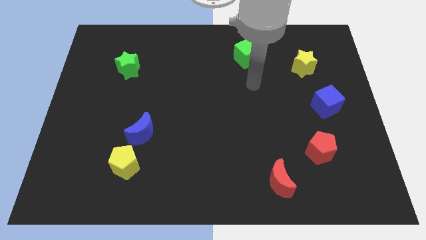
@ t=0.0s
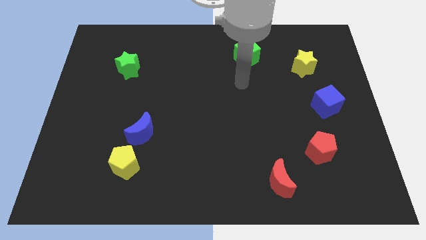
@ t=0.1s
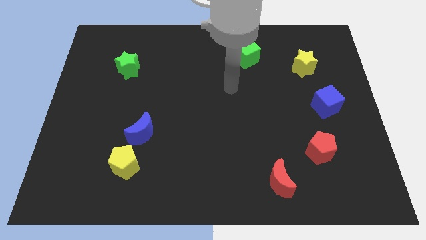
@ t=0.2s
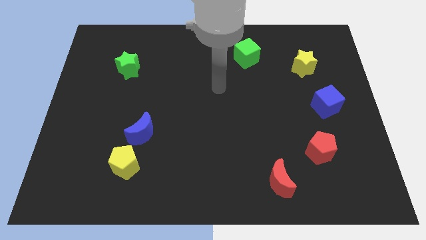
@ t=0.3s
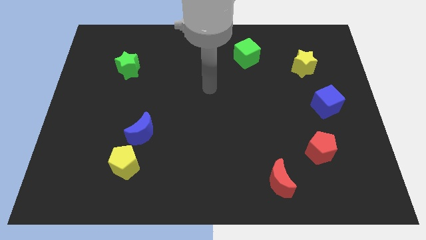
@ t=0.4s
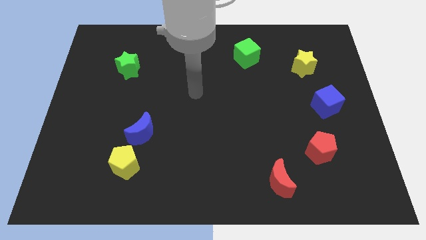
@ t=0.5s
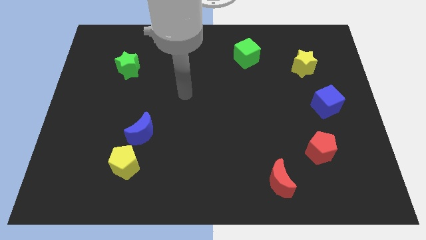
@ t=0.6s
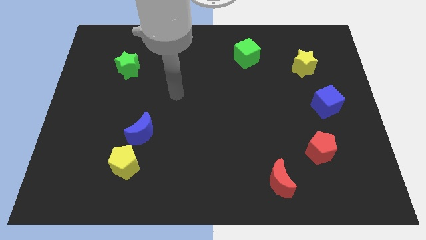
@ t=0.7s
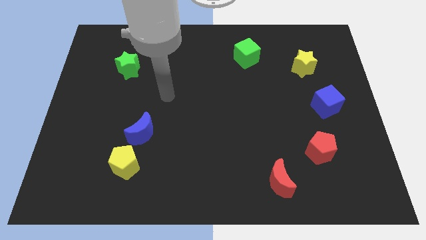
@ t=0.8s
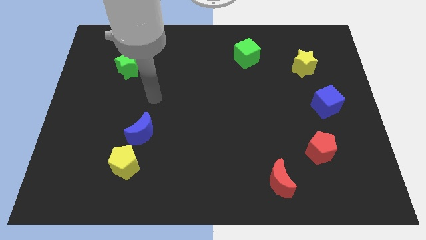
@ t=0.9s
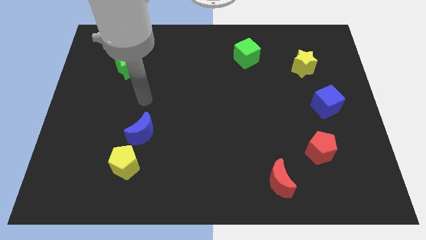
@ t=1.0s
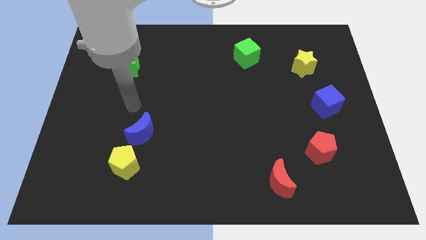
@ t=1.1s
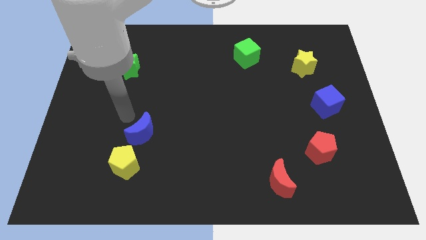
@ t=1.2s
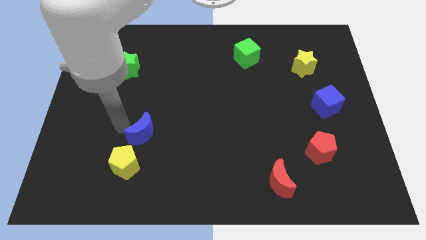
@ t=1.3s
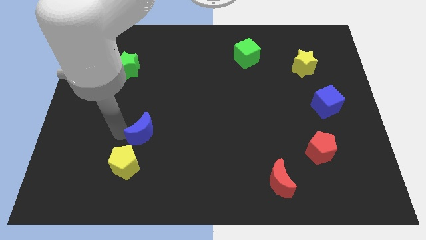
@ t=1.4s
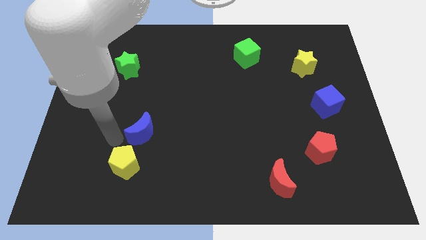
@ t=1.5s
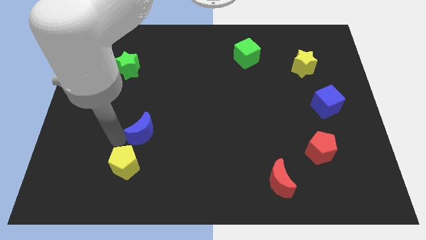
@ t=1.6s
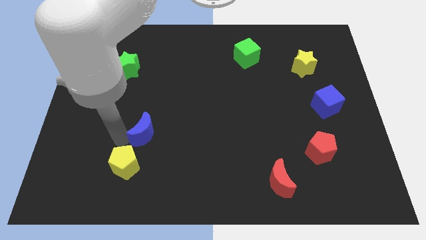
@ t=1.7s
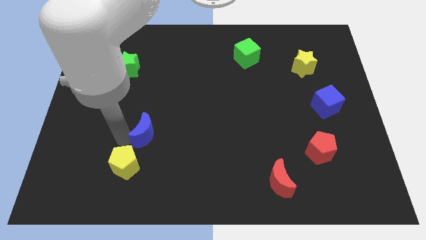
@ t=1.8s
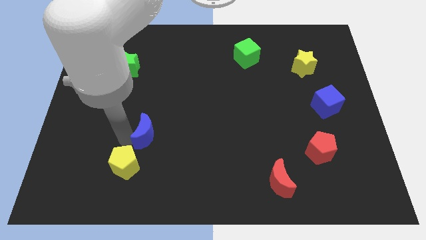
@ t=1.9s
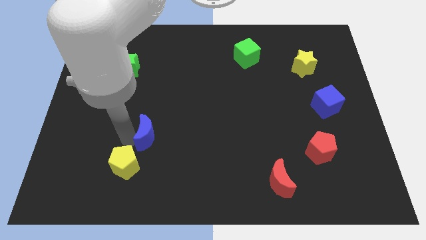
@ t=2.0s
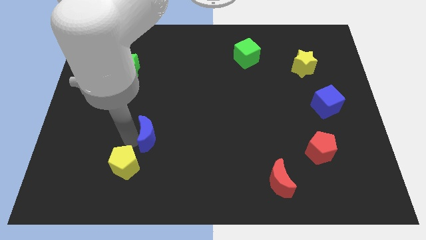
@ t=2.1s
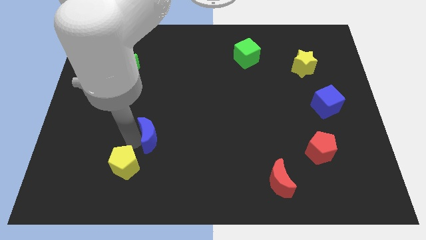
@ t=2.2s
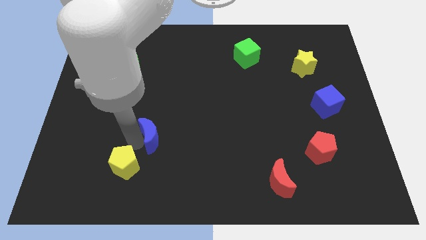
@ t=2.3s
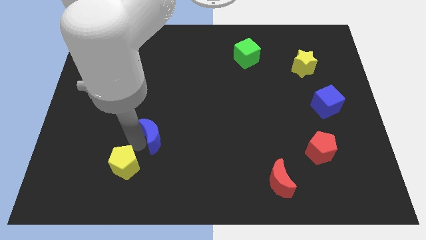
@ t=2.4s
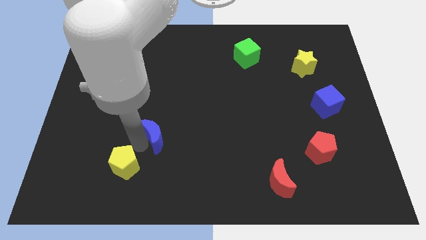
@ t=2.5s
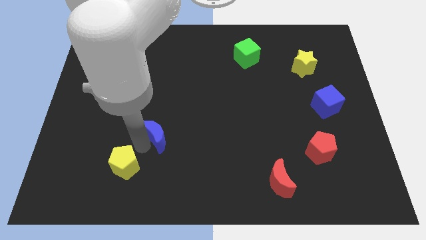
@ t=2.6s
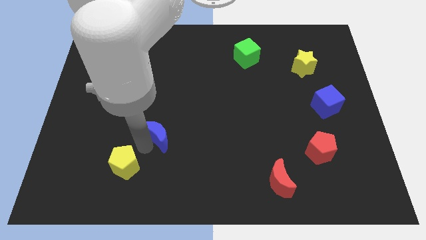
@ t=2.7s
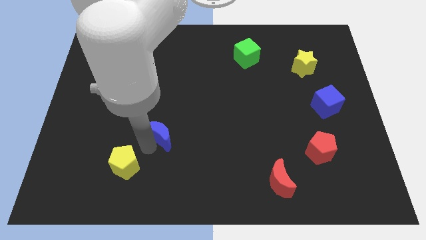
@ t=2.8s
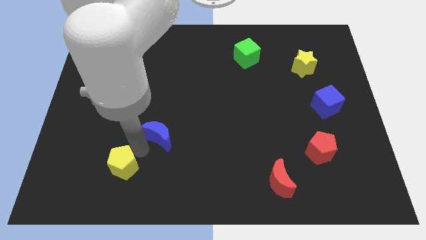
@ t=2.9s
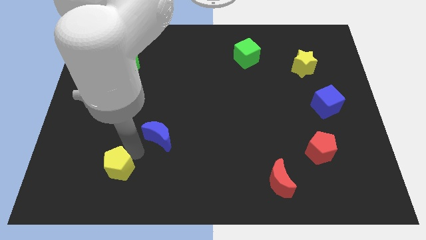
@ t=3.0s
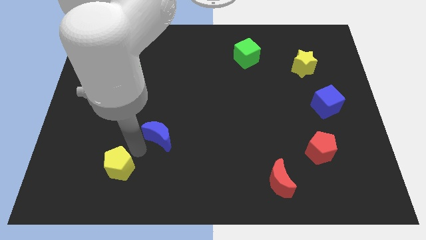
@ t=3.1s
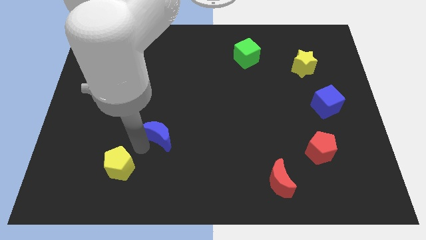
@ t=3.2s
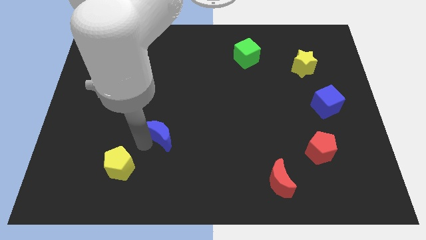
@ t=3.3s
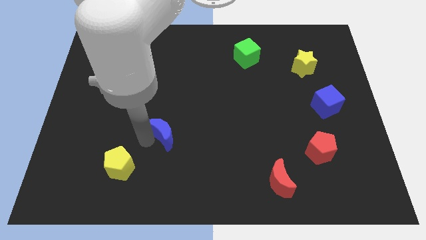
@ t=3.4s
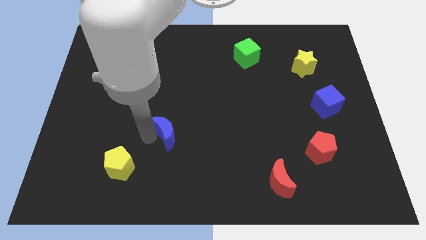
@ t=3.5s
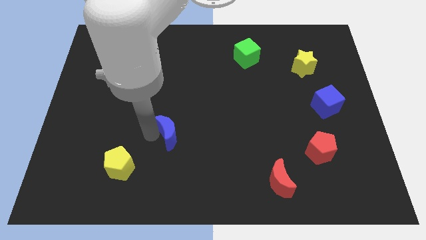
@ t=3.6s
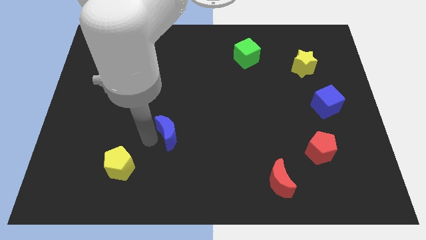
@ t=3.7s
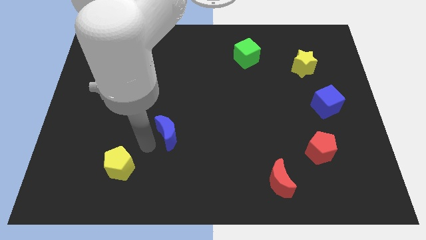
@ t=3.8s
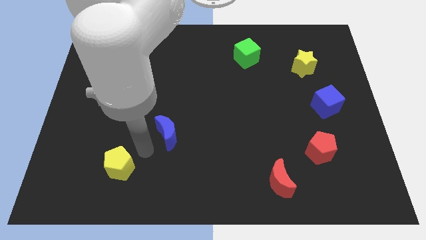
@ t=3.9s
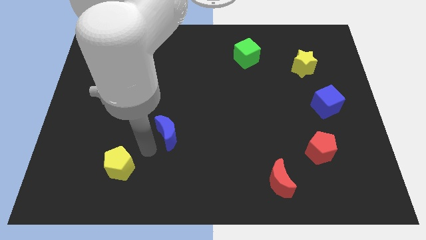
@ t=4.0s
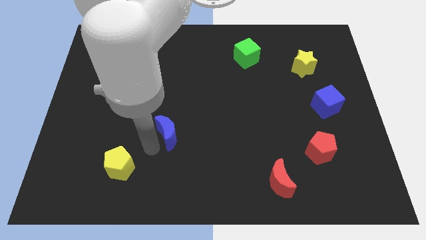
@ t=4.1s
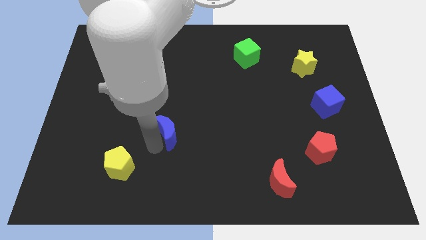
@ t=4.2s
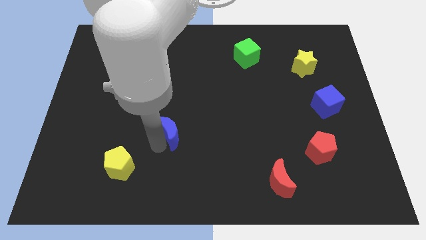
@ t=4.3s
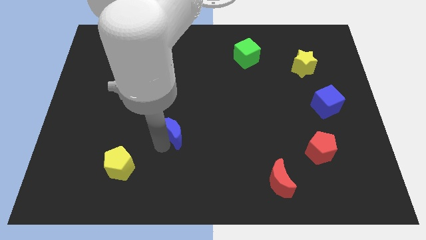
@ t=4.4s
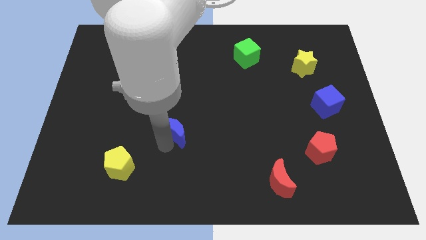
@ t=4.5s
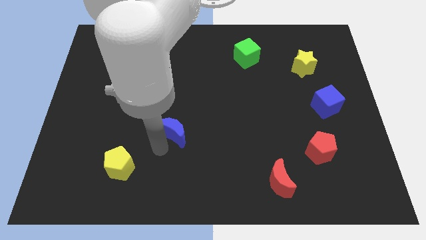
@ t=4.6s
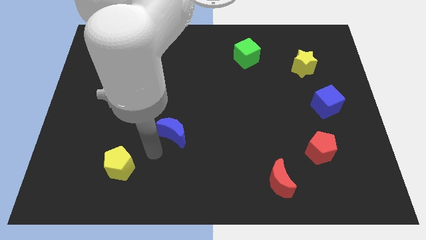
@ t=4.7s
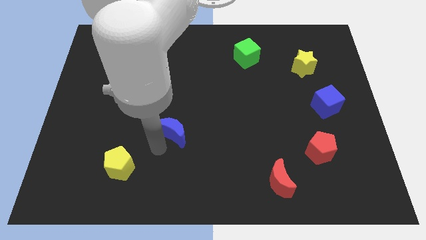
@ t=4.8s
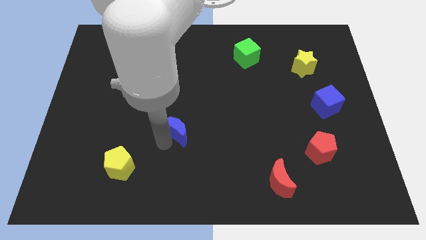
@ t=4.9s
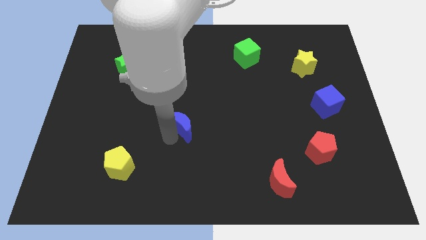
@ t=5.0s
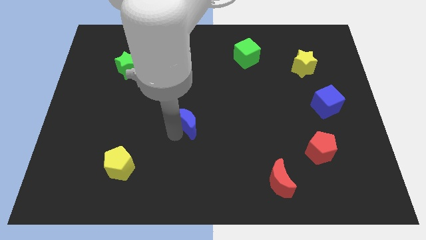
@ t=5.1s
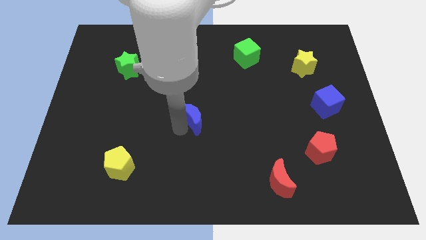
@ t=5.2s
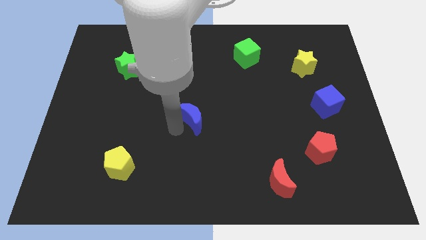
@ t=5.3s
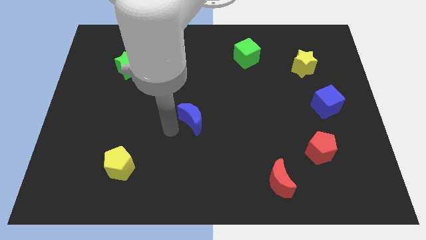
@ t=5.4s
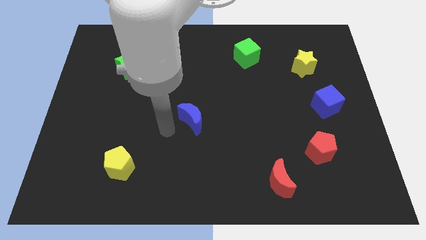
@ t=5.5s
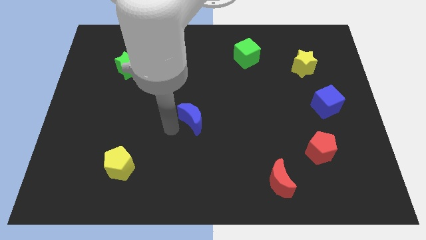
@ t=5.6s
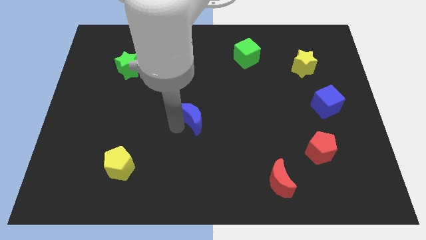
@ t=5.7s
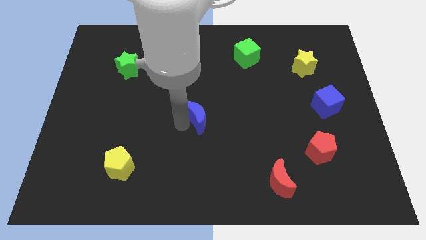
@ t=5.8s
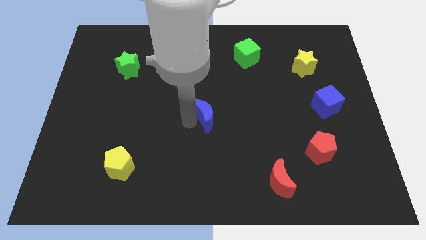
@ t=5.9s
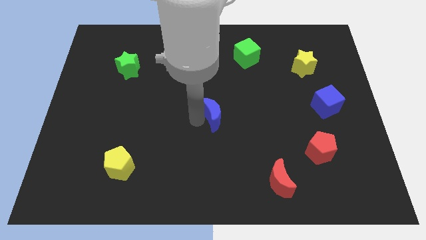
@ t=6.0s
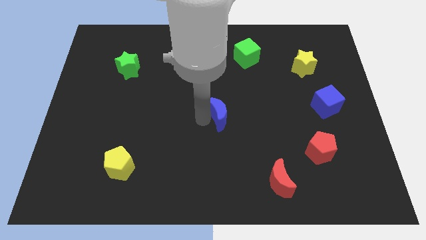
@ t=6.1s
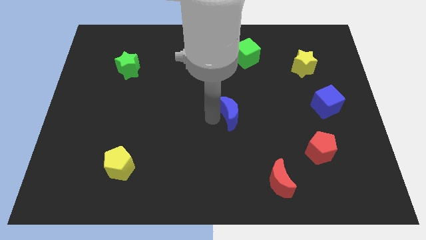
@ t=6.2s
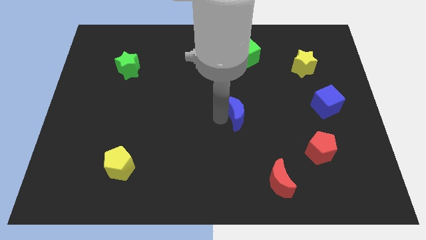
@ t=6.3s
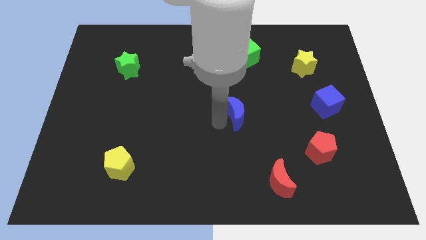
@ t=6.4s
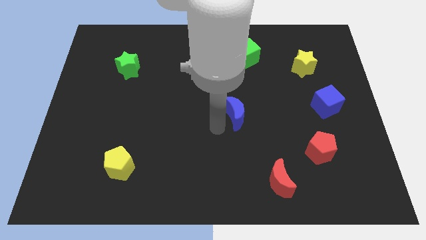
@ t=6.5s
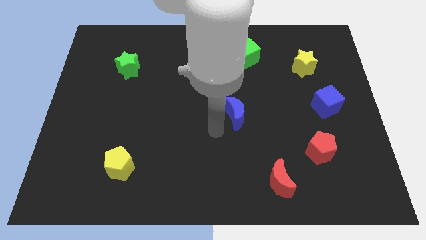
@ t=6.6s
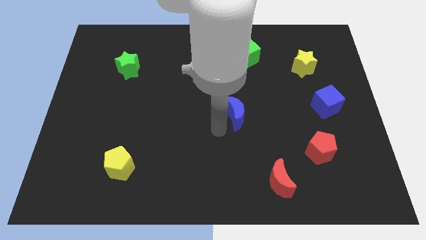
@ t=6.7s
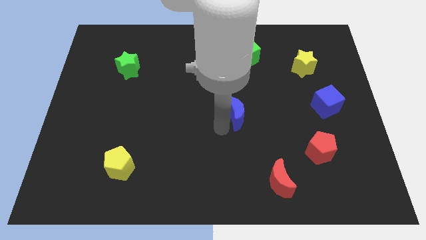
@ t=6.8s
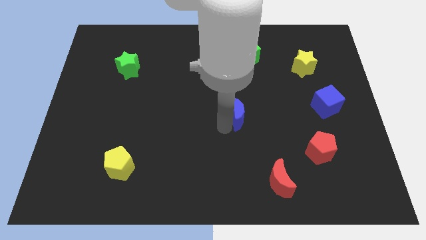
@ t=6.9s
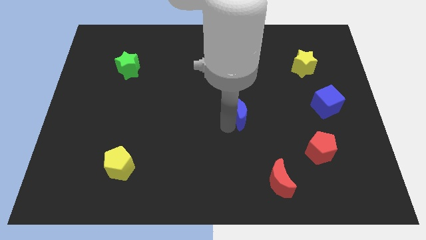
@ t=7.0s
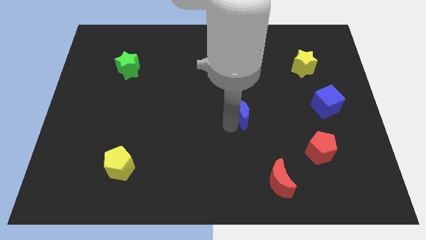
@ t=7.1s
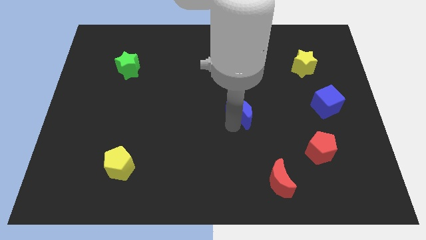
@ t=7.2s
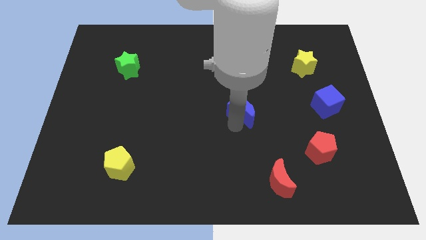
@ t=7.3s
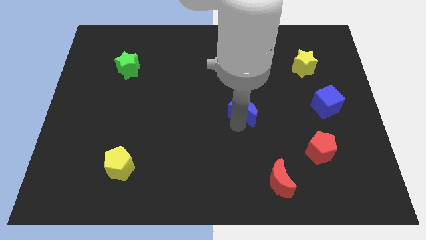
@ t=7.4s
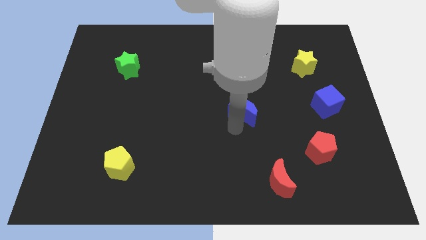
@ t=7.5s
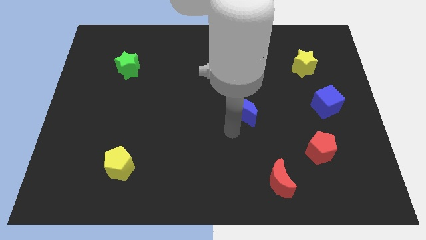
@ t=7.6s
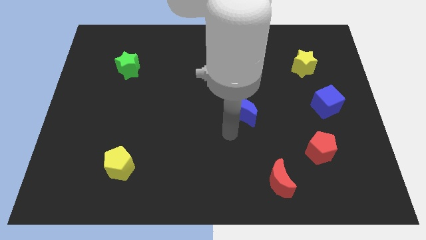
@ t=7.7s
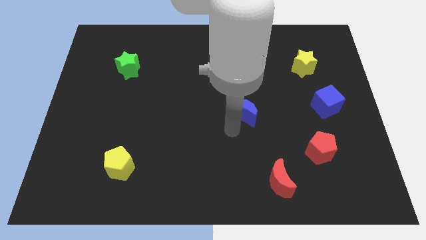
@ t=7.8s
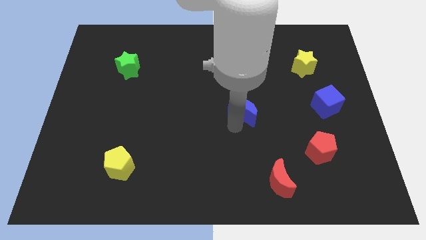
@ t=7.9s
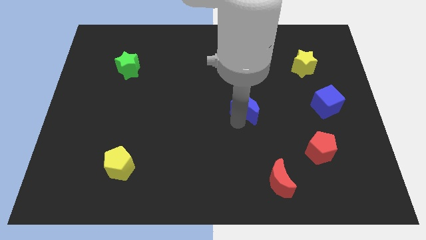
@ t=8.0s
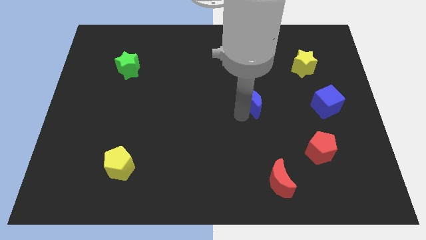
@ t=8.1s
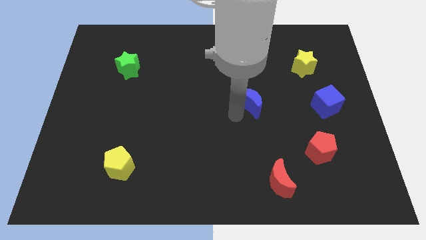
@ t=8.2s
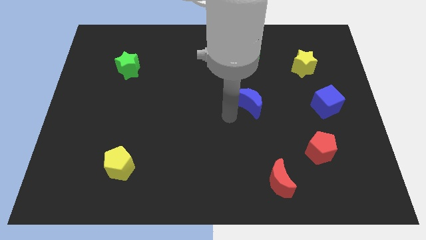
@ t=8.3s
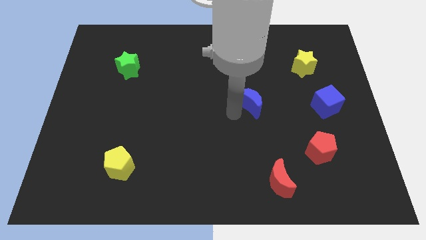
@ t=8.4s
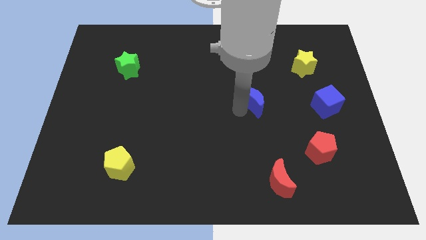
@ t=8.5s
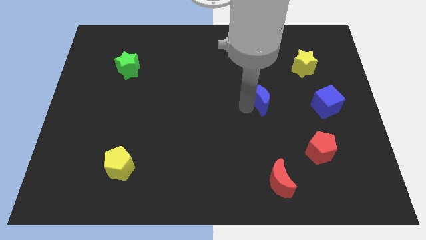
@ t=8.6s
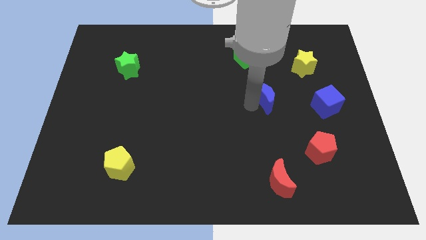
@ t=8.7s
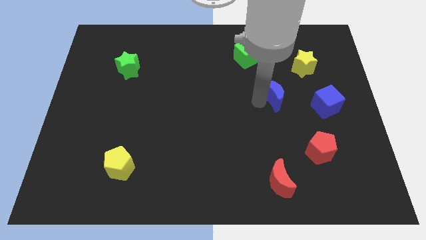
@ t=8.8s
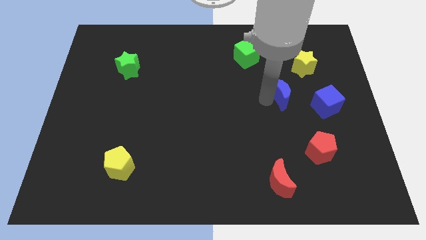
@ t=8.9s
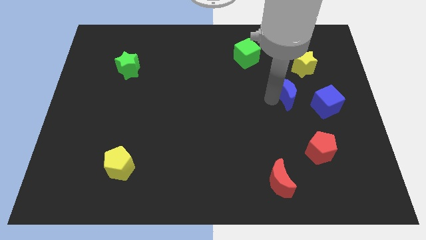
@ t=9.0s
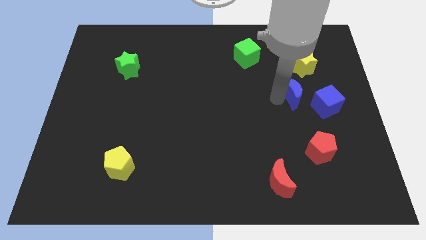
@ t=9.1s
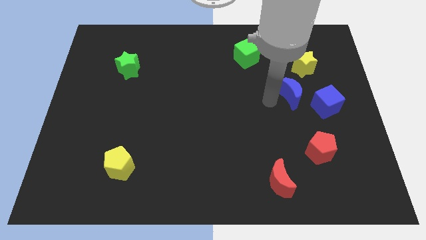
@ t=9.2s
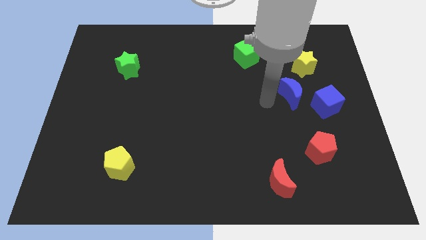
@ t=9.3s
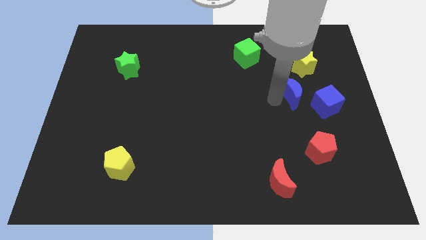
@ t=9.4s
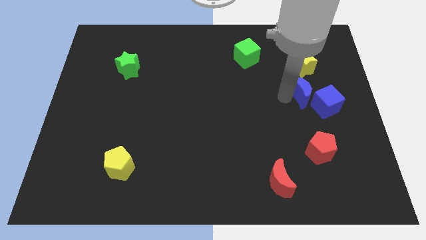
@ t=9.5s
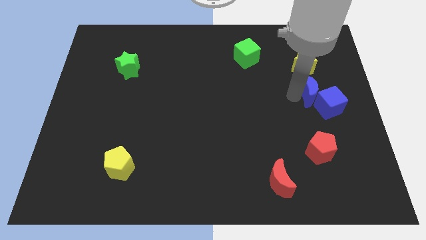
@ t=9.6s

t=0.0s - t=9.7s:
slide the blue moon above the blue cube
